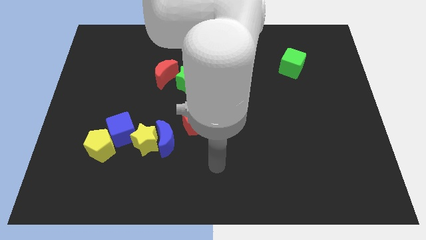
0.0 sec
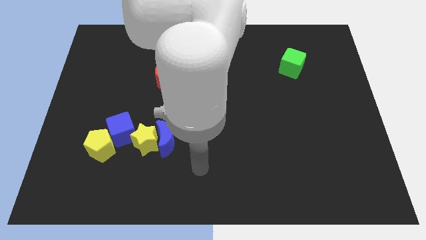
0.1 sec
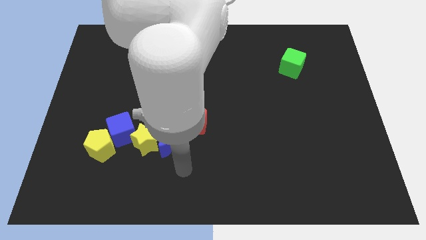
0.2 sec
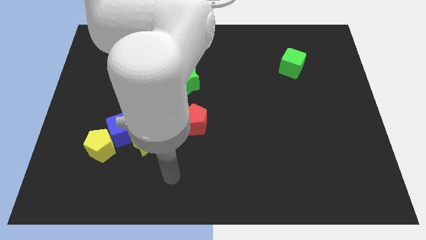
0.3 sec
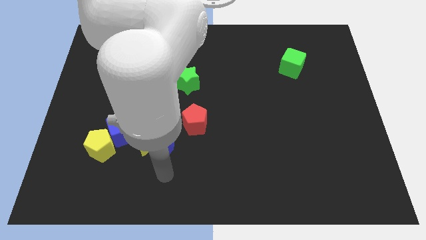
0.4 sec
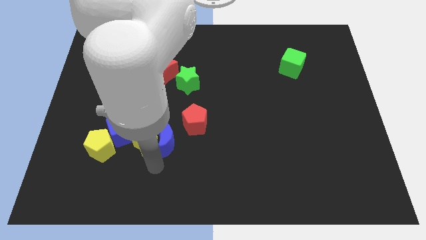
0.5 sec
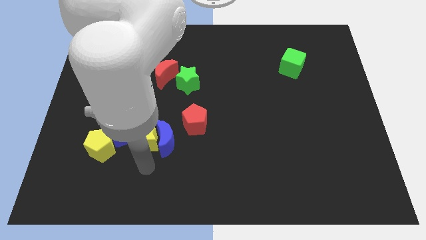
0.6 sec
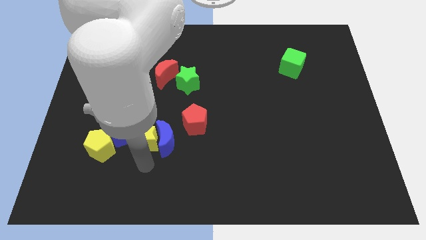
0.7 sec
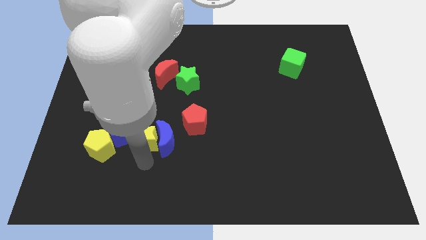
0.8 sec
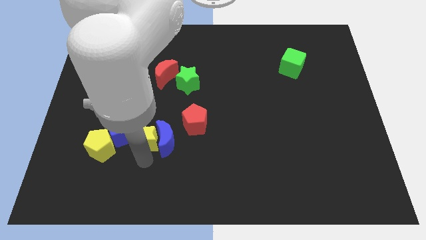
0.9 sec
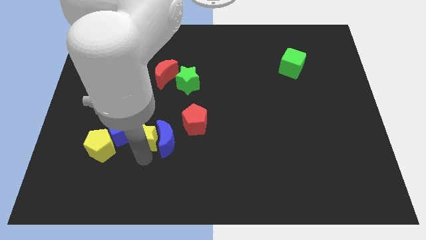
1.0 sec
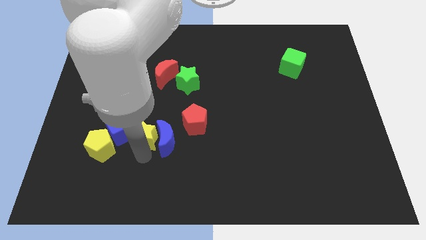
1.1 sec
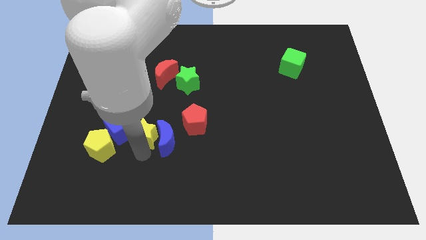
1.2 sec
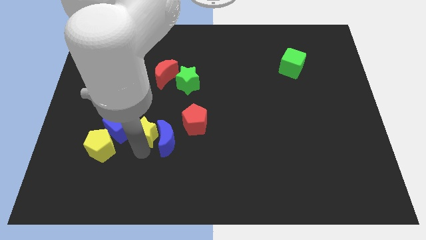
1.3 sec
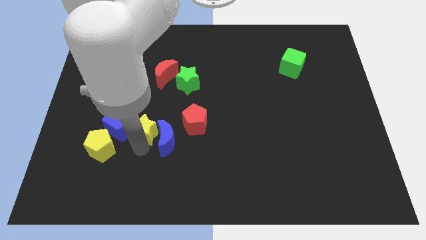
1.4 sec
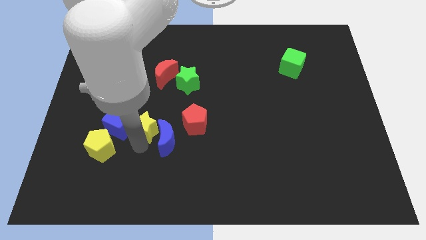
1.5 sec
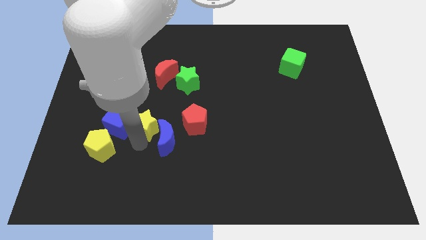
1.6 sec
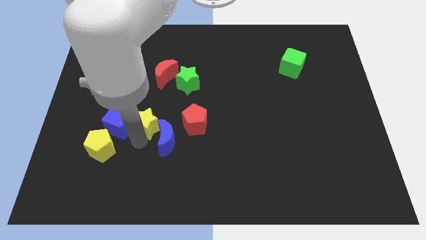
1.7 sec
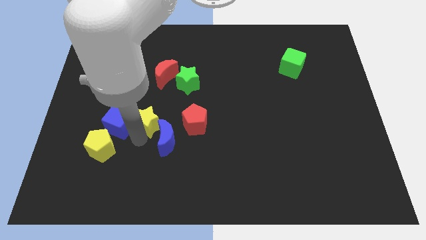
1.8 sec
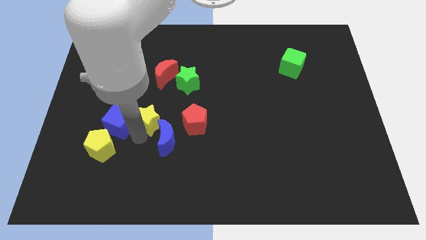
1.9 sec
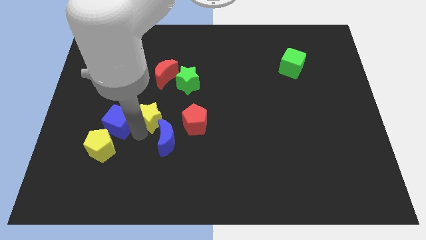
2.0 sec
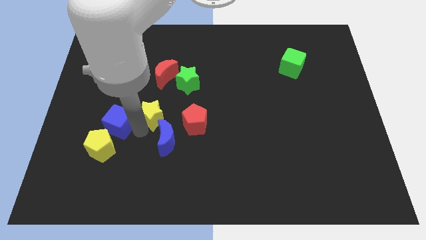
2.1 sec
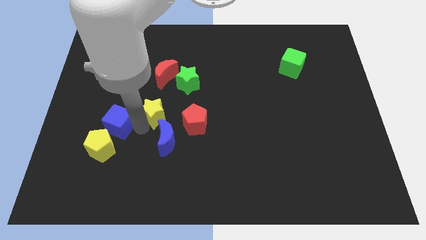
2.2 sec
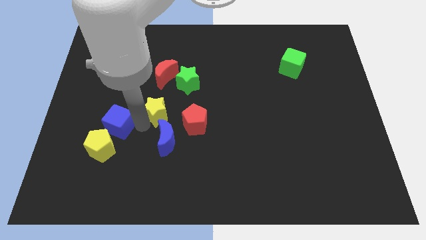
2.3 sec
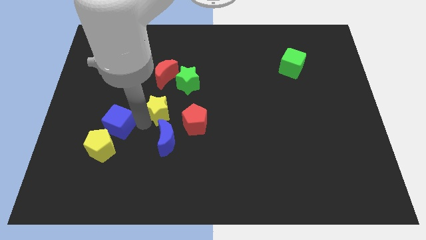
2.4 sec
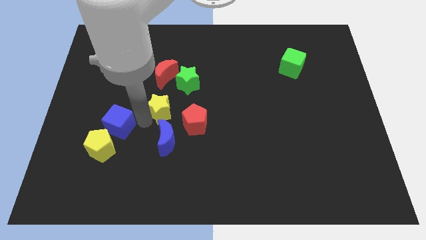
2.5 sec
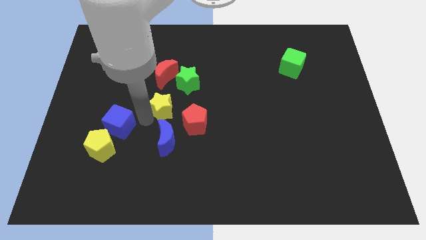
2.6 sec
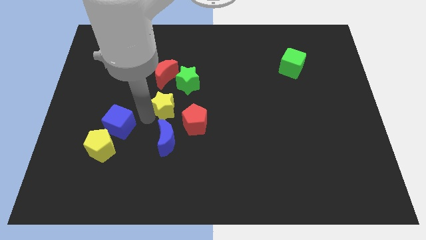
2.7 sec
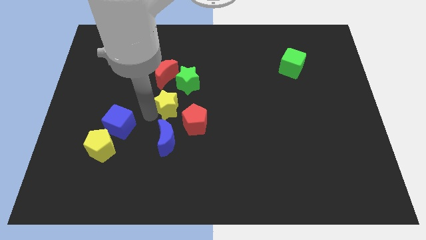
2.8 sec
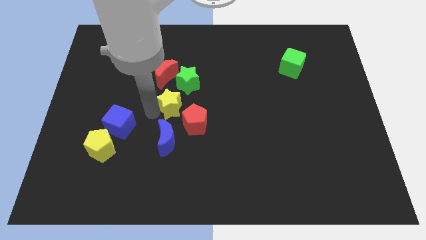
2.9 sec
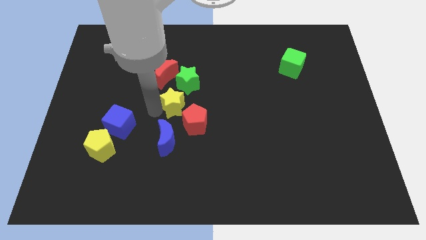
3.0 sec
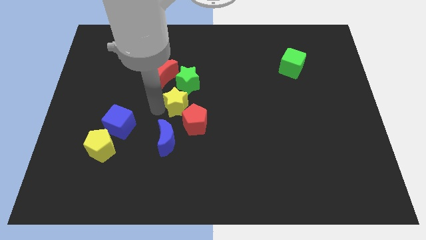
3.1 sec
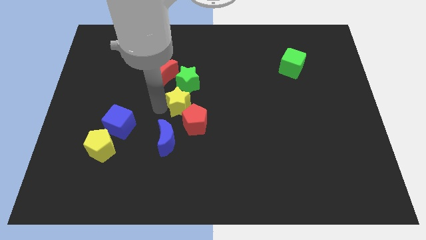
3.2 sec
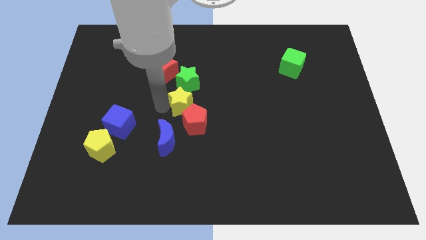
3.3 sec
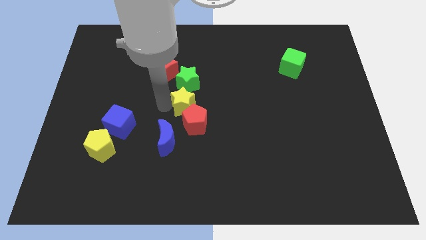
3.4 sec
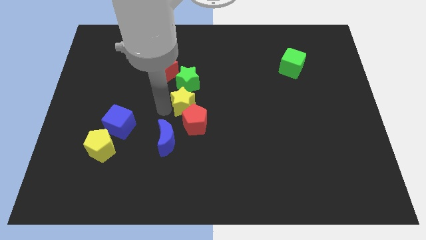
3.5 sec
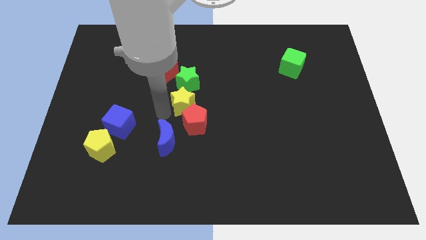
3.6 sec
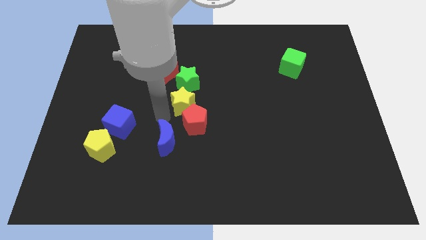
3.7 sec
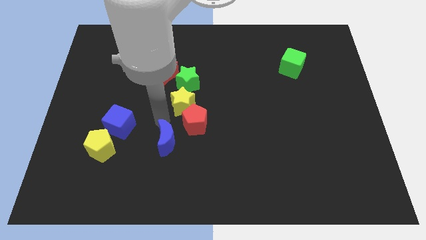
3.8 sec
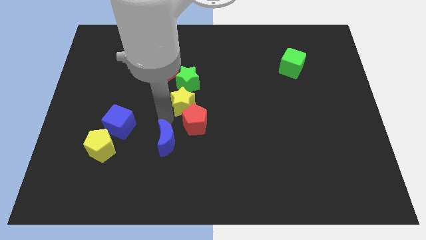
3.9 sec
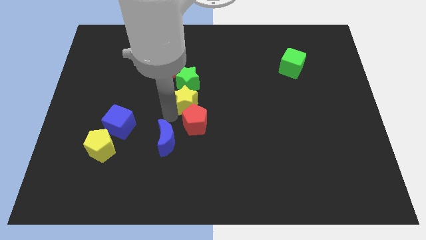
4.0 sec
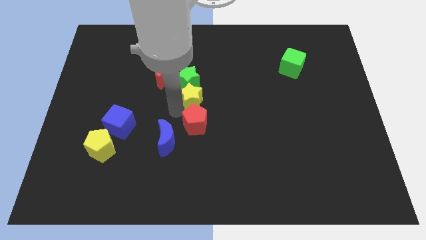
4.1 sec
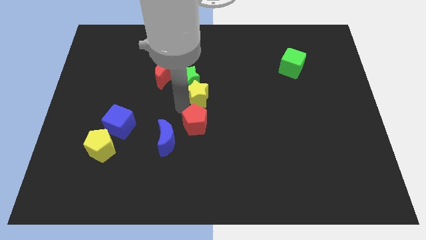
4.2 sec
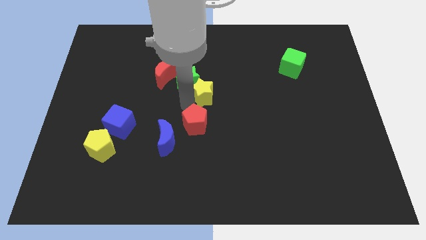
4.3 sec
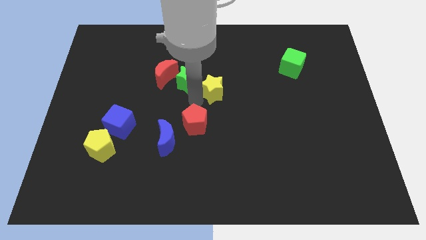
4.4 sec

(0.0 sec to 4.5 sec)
push the yellow star diagonally upwards and to the right

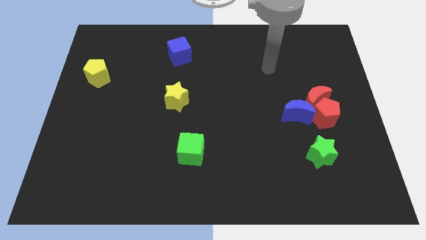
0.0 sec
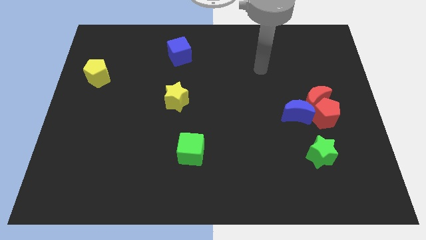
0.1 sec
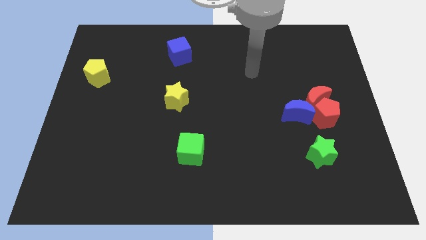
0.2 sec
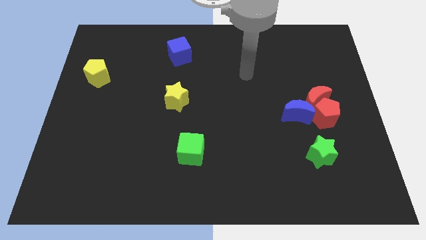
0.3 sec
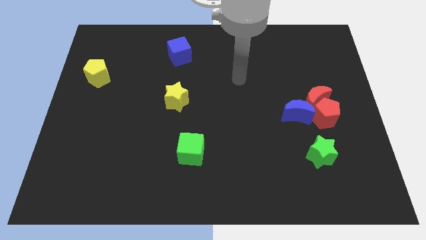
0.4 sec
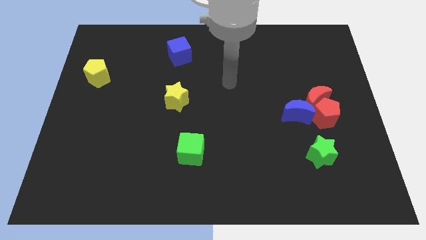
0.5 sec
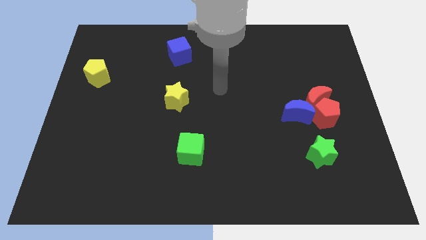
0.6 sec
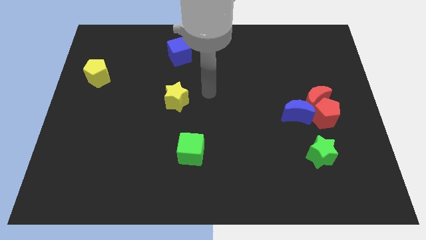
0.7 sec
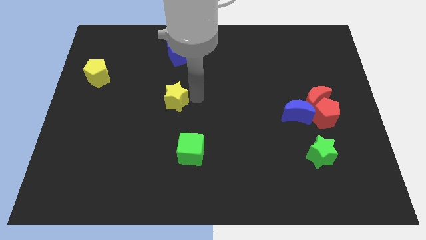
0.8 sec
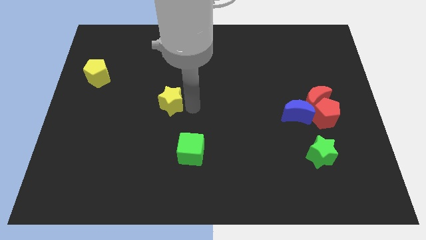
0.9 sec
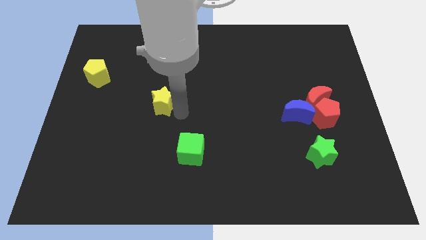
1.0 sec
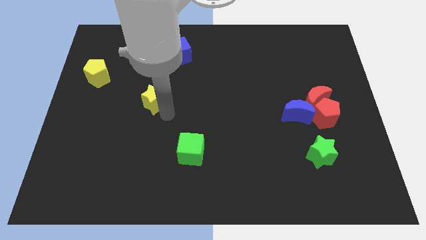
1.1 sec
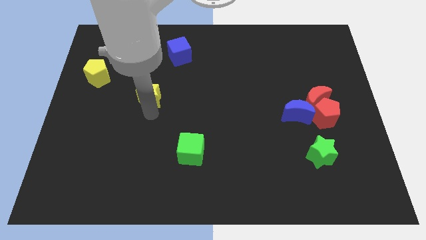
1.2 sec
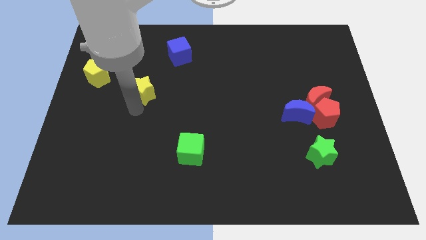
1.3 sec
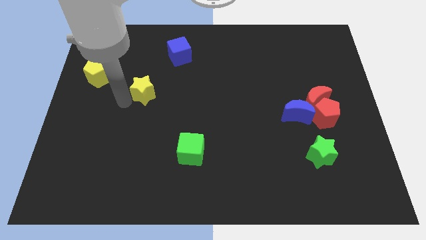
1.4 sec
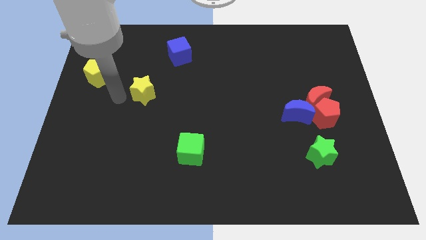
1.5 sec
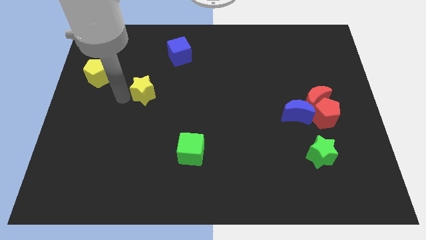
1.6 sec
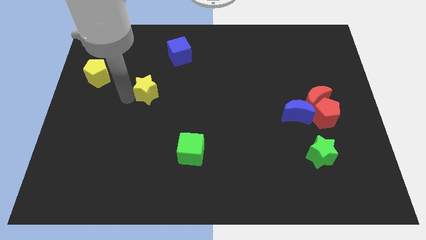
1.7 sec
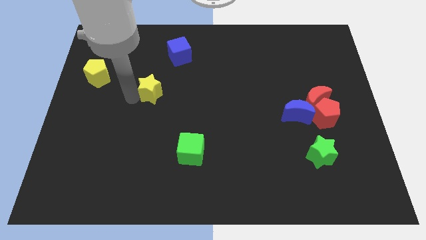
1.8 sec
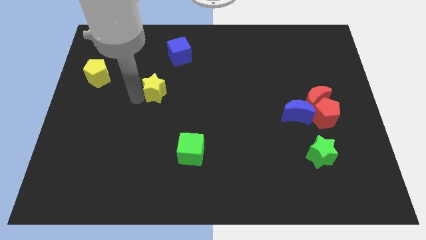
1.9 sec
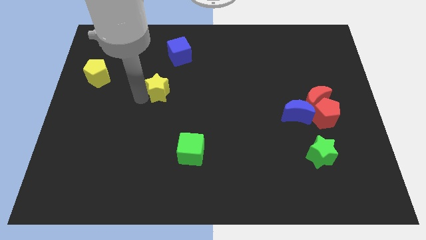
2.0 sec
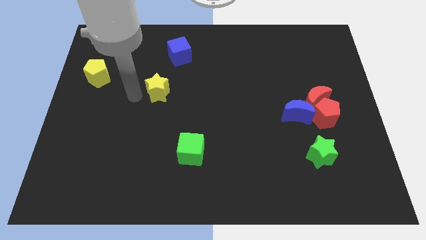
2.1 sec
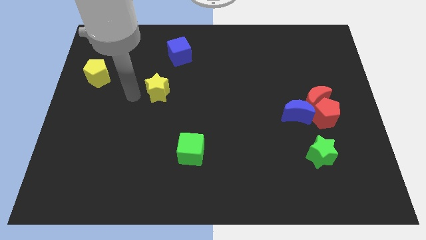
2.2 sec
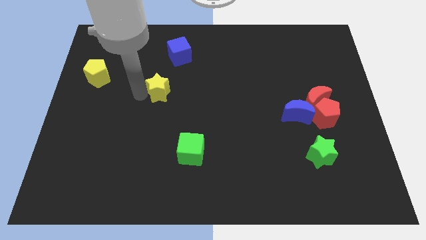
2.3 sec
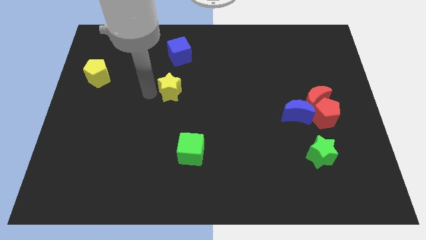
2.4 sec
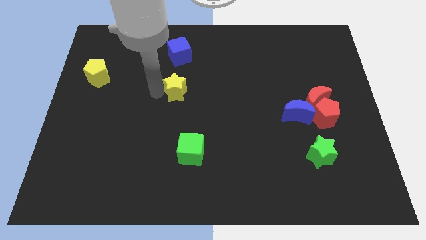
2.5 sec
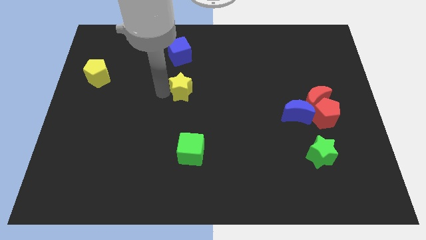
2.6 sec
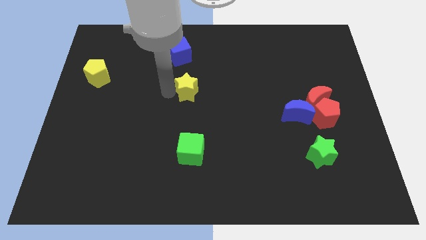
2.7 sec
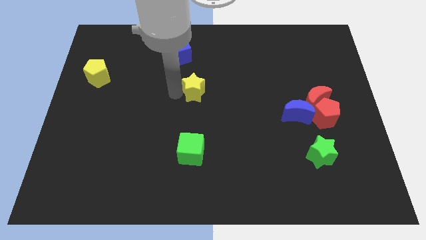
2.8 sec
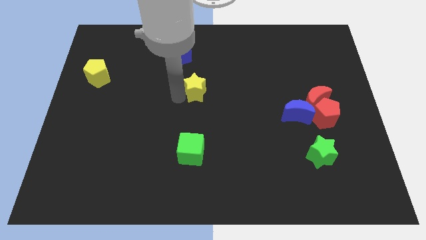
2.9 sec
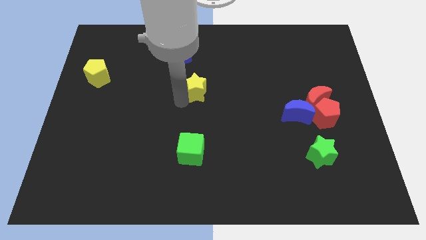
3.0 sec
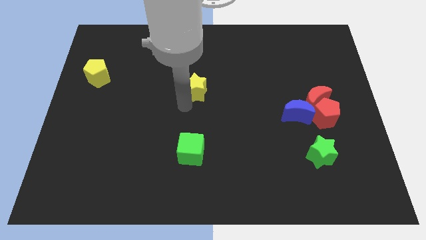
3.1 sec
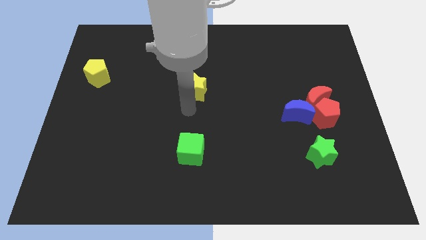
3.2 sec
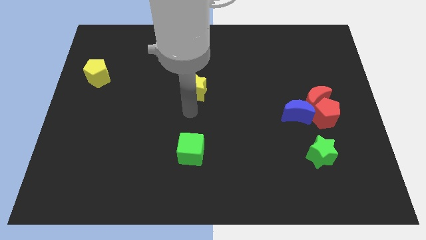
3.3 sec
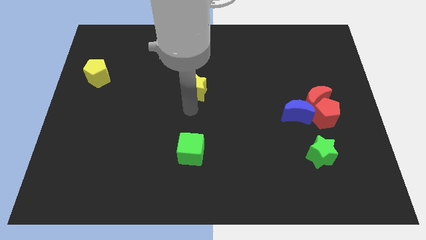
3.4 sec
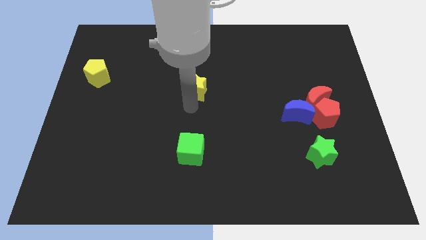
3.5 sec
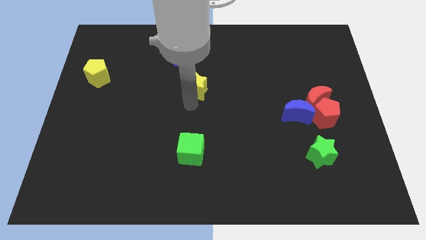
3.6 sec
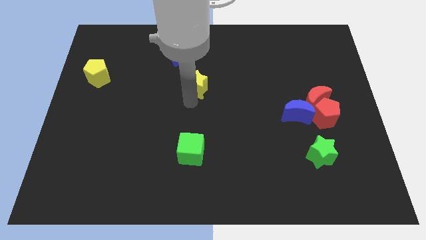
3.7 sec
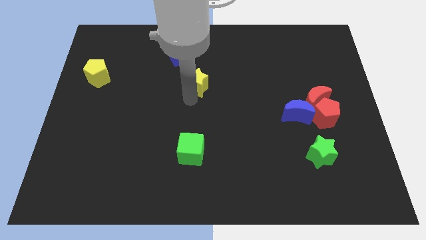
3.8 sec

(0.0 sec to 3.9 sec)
slide the yellow star upwards and to the right diagonally somewhat
